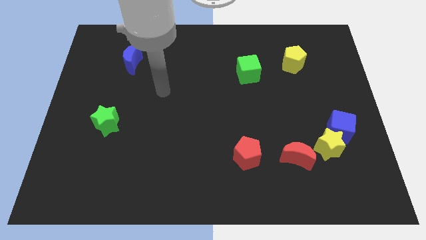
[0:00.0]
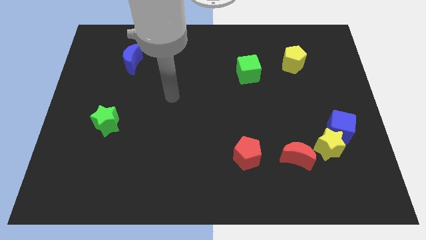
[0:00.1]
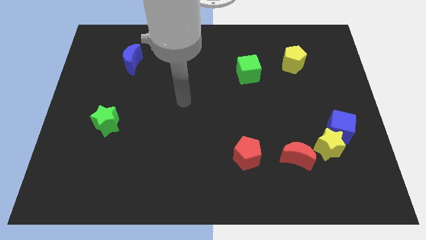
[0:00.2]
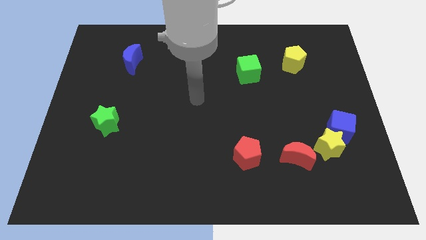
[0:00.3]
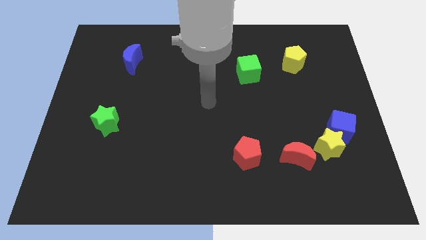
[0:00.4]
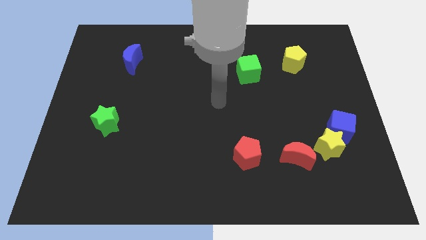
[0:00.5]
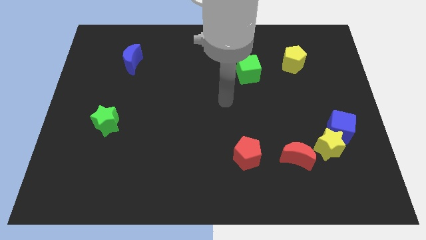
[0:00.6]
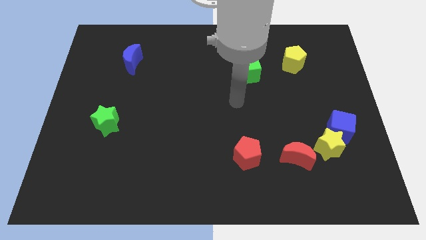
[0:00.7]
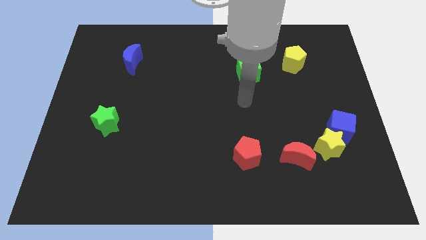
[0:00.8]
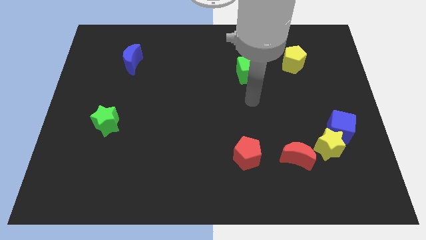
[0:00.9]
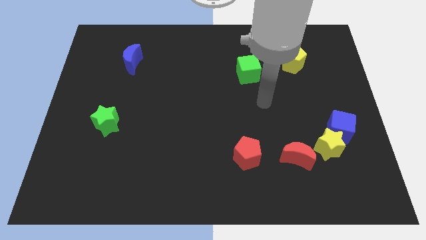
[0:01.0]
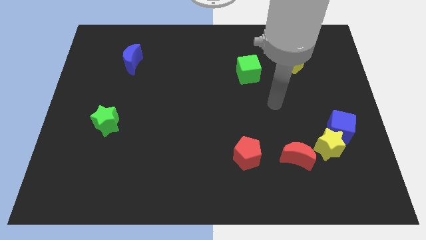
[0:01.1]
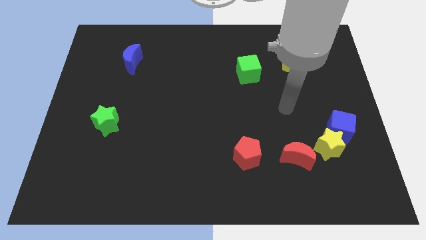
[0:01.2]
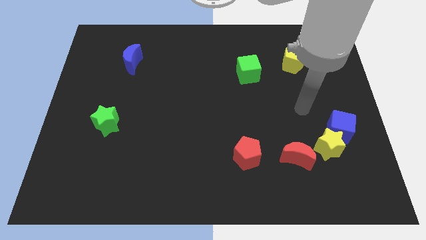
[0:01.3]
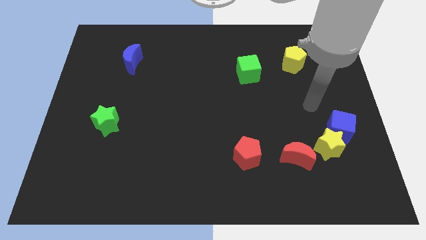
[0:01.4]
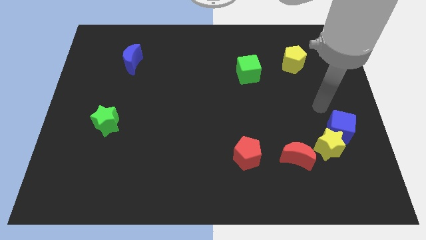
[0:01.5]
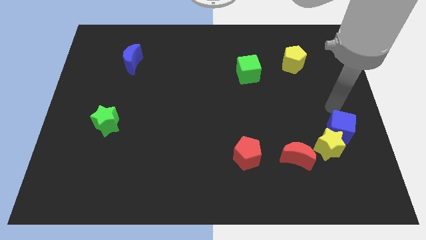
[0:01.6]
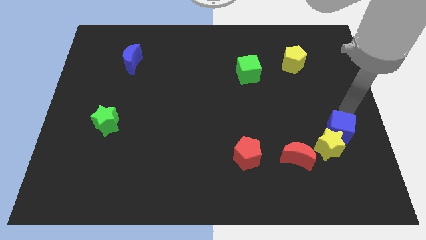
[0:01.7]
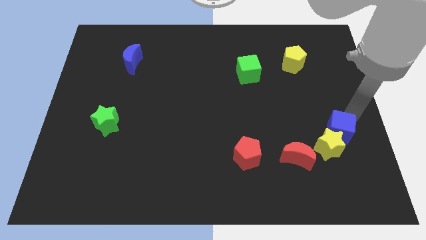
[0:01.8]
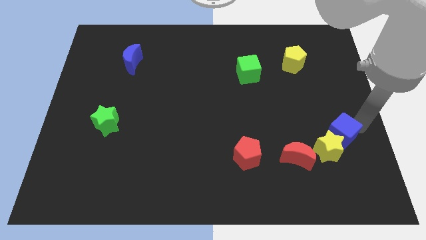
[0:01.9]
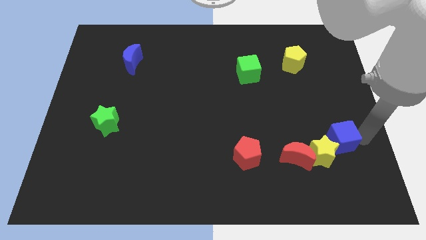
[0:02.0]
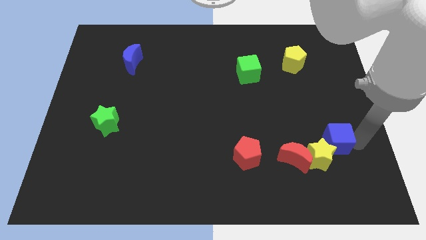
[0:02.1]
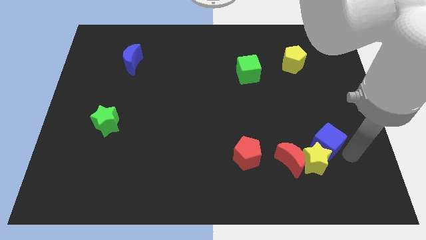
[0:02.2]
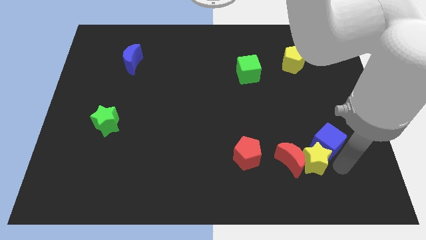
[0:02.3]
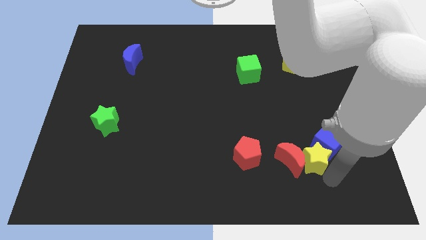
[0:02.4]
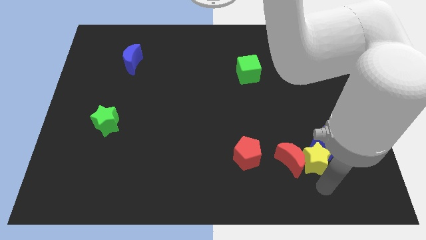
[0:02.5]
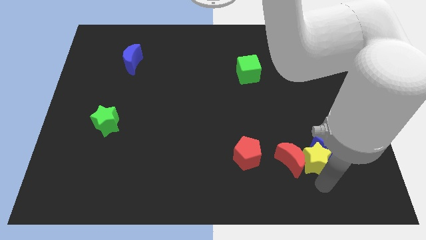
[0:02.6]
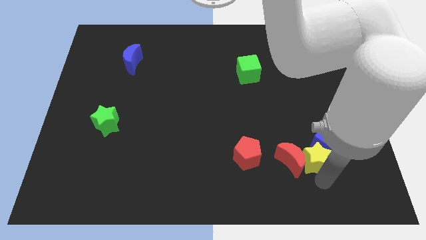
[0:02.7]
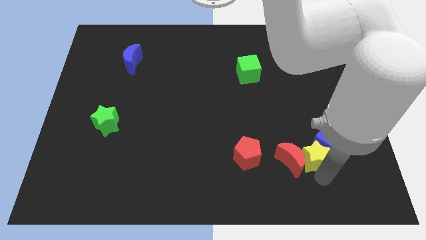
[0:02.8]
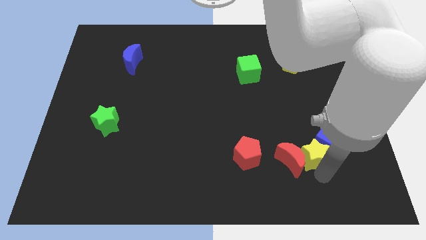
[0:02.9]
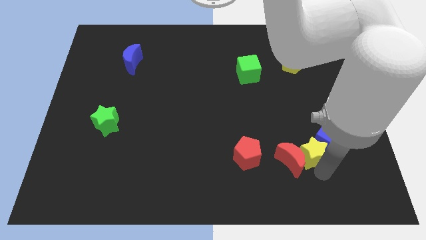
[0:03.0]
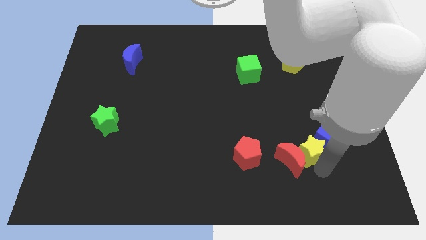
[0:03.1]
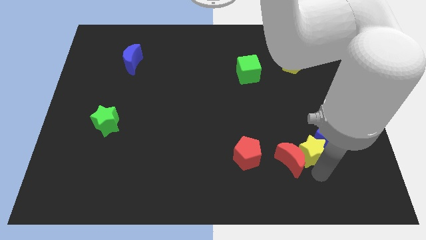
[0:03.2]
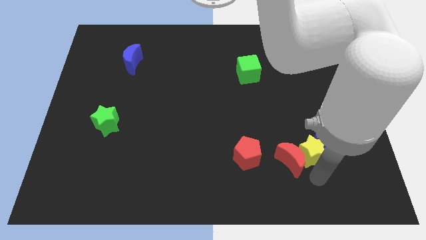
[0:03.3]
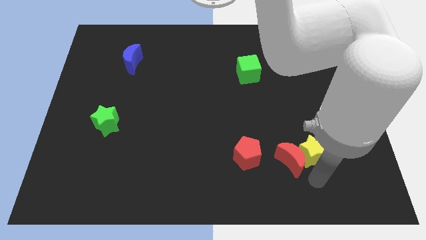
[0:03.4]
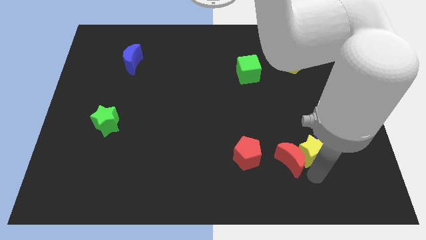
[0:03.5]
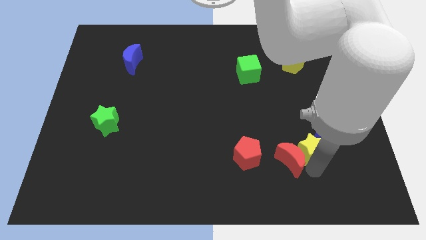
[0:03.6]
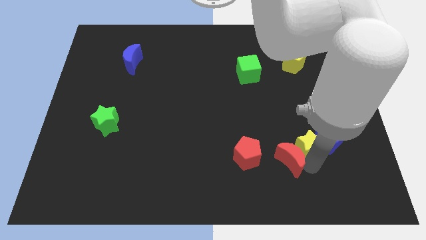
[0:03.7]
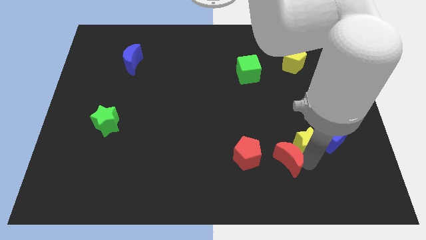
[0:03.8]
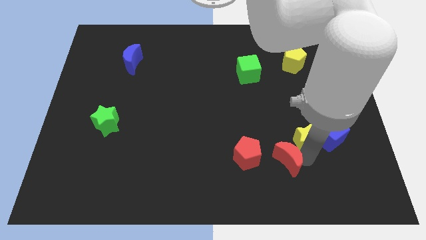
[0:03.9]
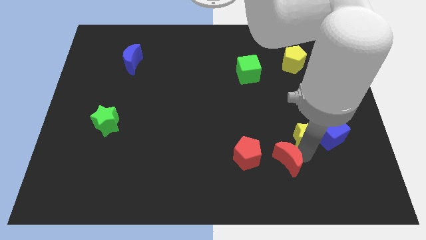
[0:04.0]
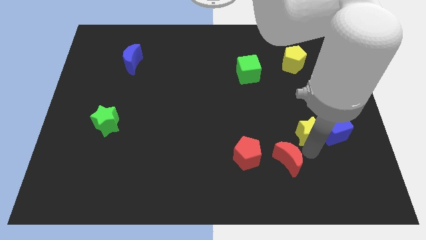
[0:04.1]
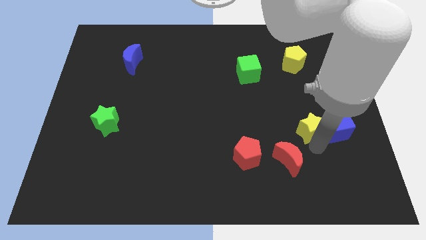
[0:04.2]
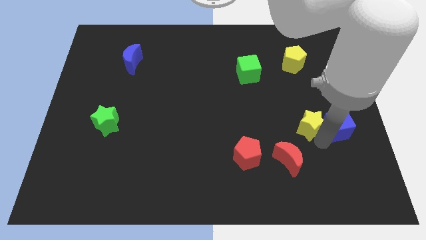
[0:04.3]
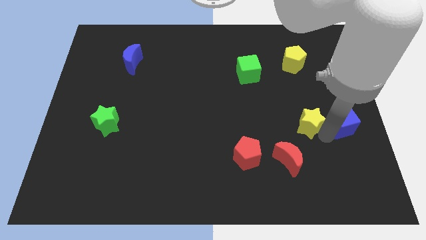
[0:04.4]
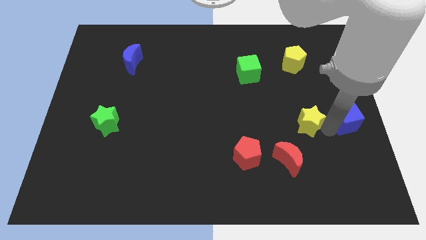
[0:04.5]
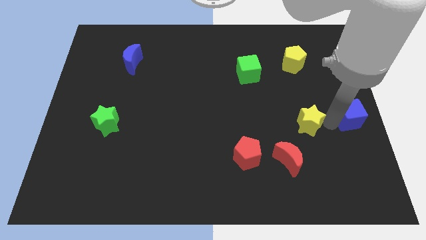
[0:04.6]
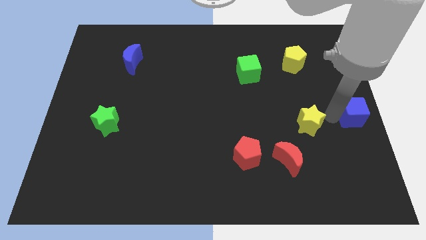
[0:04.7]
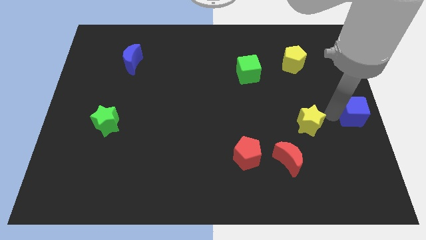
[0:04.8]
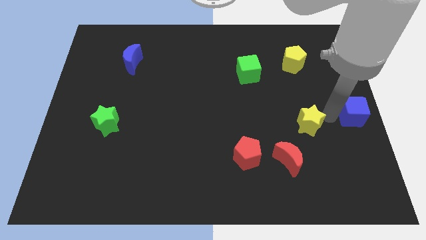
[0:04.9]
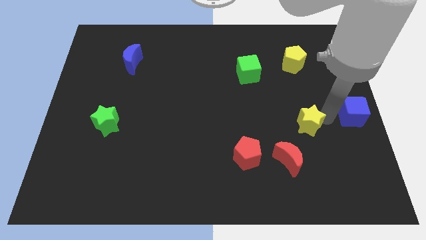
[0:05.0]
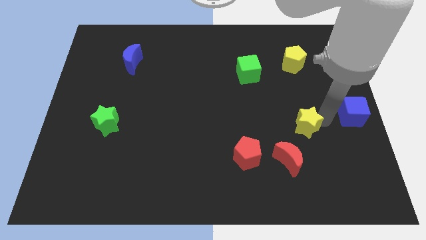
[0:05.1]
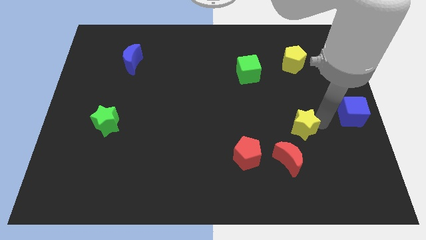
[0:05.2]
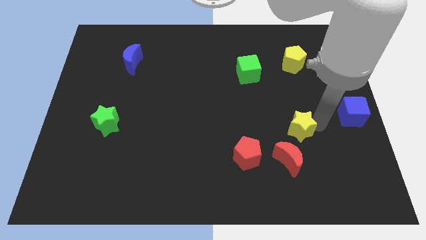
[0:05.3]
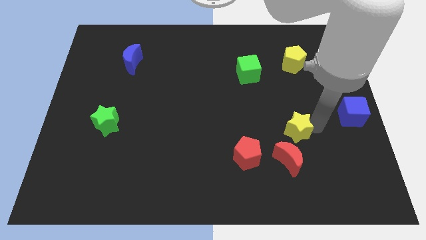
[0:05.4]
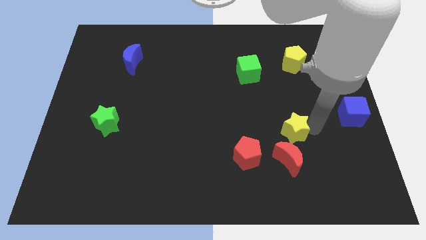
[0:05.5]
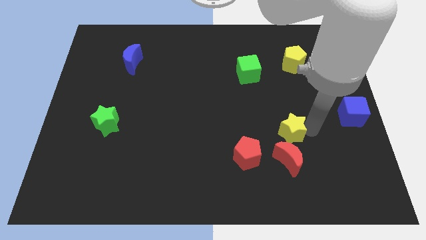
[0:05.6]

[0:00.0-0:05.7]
slide the yellow star diagonally up and to the right of the red pentagon
